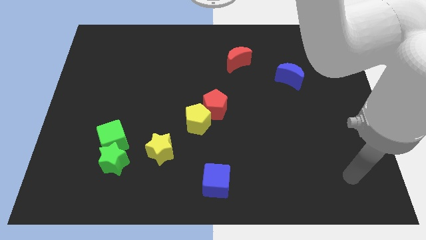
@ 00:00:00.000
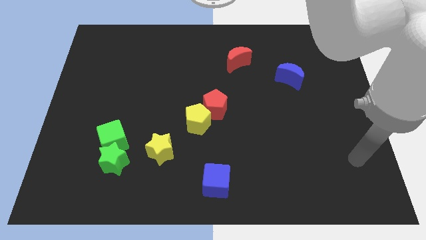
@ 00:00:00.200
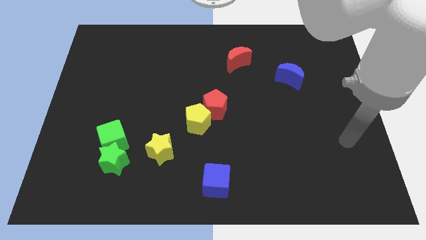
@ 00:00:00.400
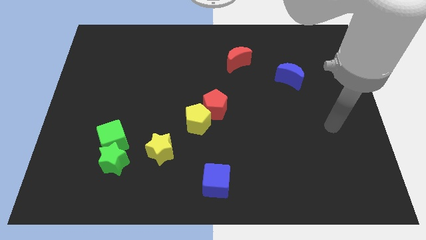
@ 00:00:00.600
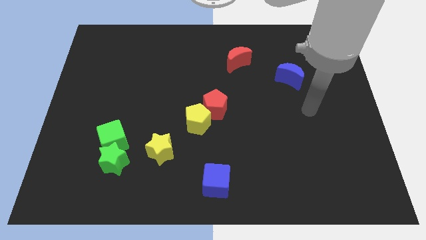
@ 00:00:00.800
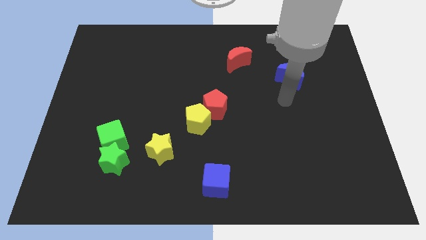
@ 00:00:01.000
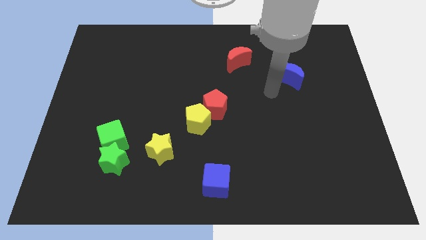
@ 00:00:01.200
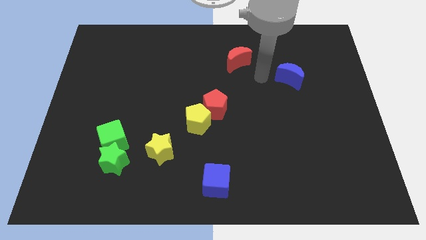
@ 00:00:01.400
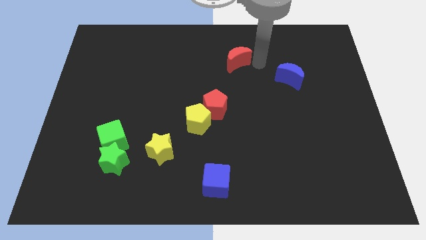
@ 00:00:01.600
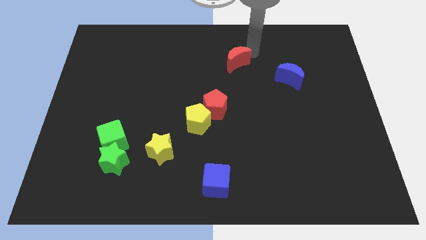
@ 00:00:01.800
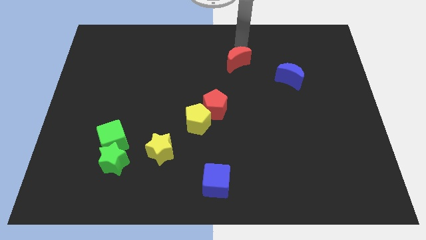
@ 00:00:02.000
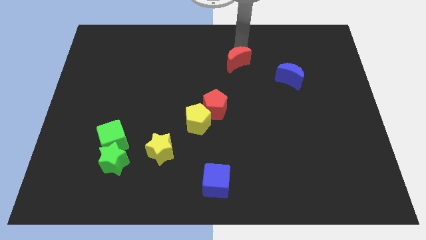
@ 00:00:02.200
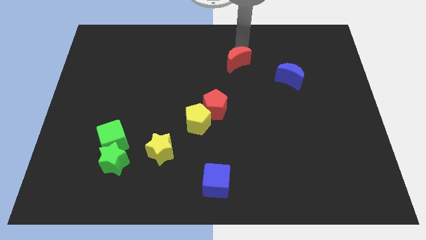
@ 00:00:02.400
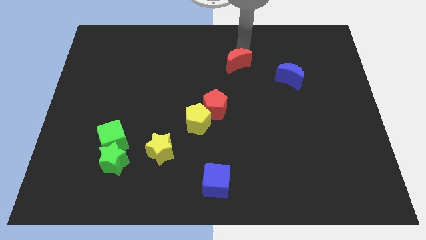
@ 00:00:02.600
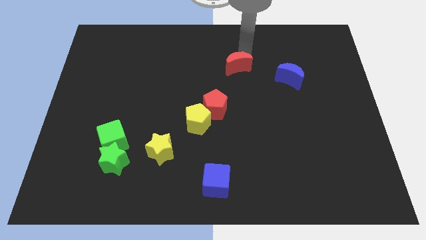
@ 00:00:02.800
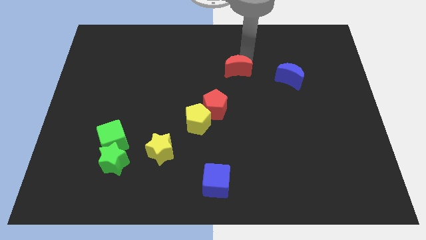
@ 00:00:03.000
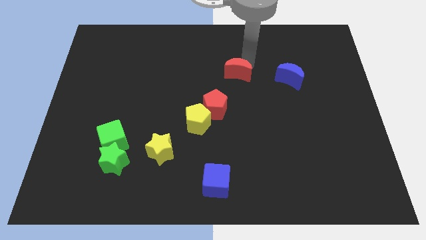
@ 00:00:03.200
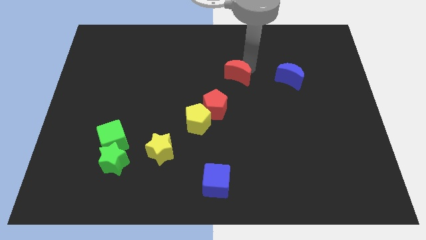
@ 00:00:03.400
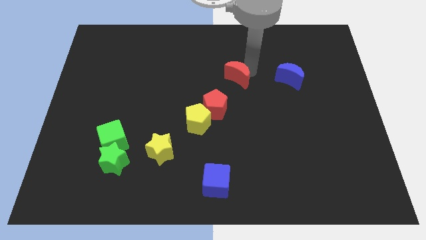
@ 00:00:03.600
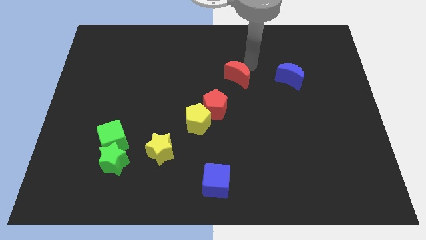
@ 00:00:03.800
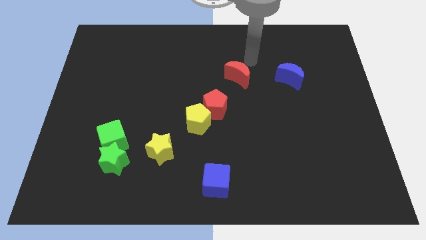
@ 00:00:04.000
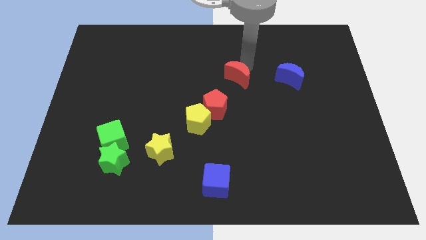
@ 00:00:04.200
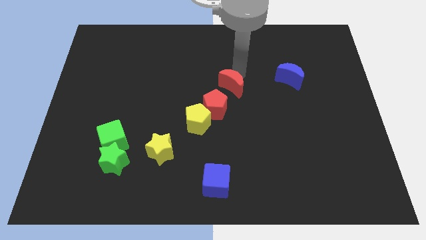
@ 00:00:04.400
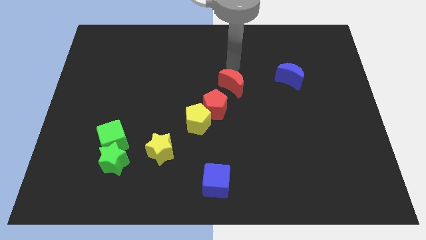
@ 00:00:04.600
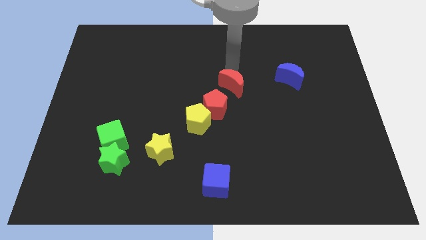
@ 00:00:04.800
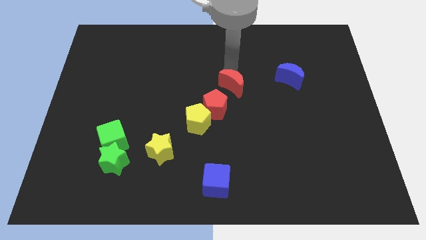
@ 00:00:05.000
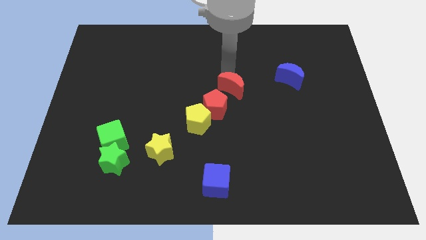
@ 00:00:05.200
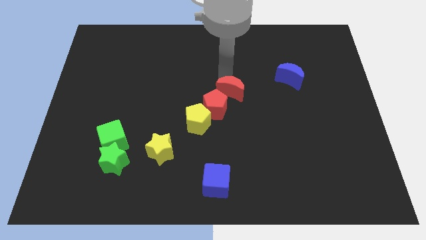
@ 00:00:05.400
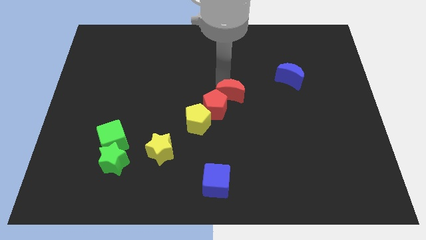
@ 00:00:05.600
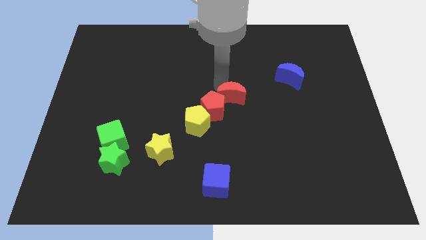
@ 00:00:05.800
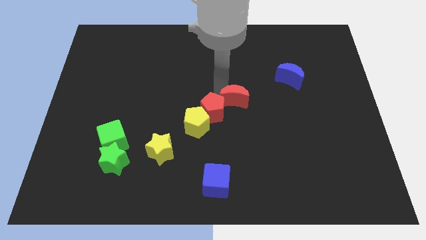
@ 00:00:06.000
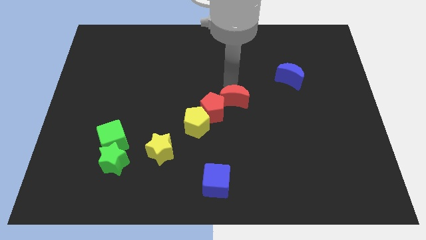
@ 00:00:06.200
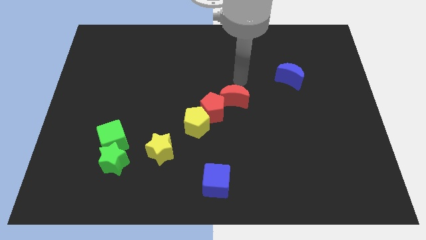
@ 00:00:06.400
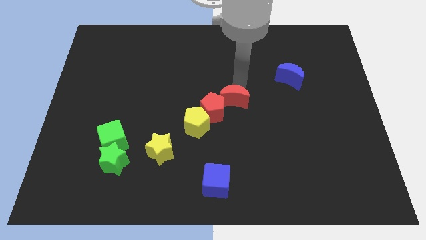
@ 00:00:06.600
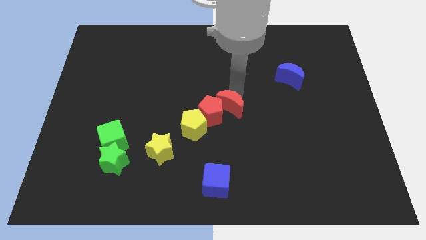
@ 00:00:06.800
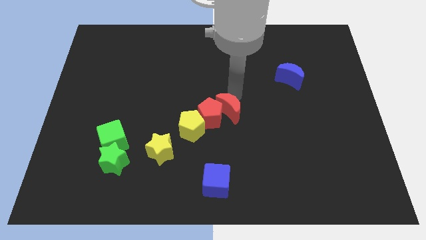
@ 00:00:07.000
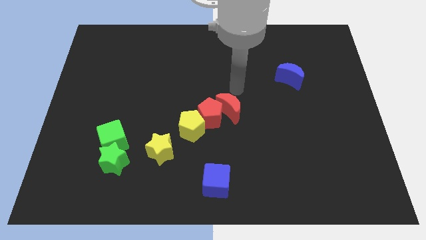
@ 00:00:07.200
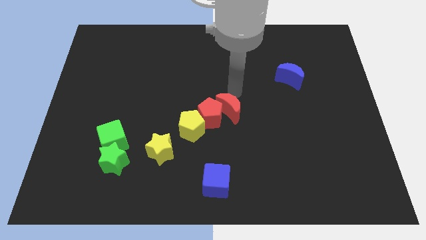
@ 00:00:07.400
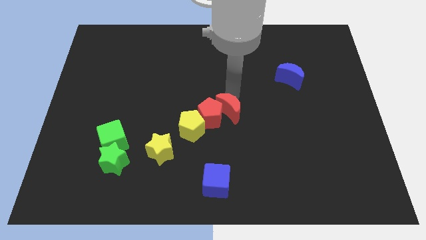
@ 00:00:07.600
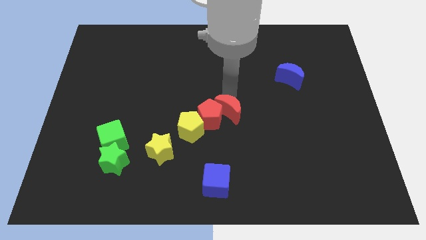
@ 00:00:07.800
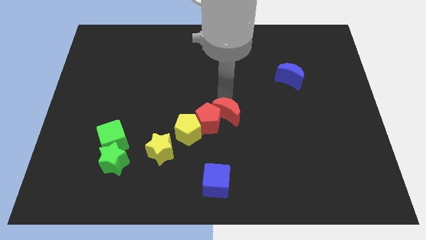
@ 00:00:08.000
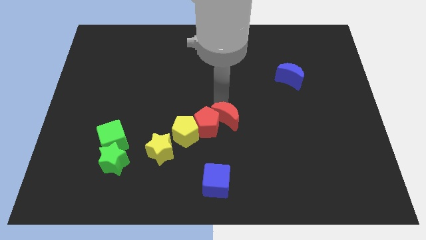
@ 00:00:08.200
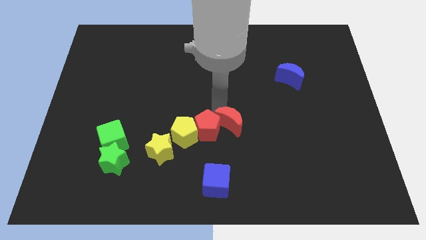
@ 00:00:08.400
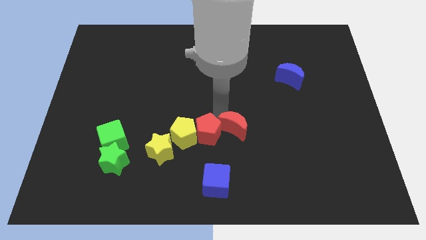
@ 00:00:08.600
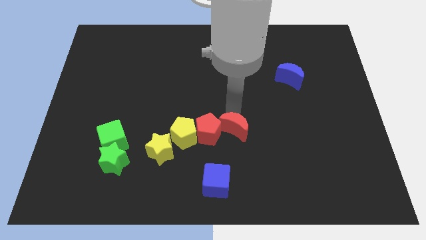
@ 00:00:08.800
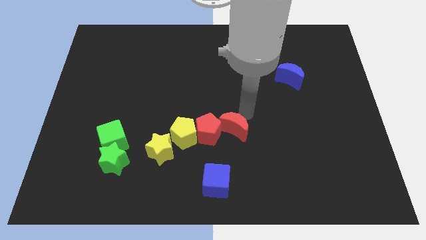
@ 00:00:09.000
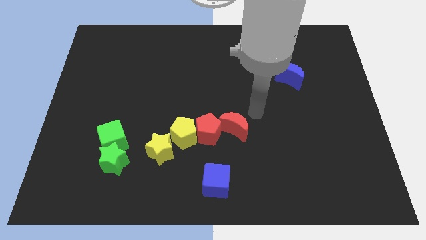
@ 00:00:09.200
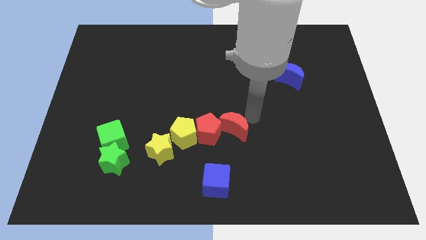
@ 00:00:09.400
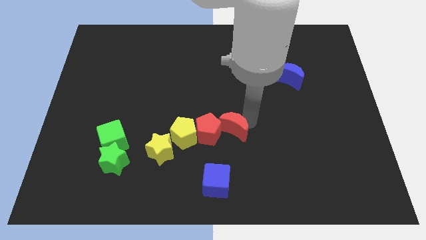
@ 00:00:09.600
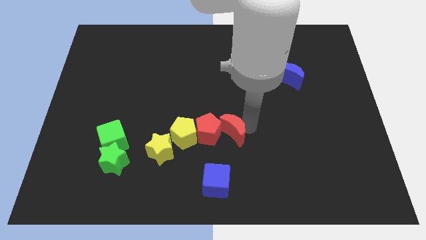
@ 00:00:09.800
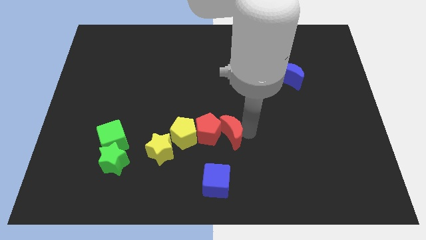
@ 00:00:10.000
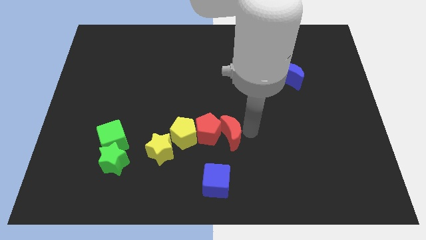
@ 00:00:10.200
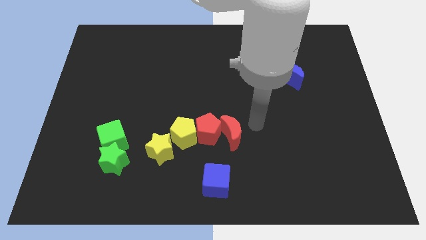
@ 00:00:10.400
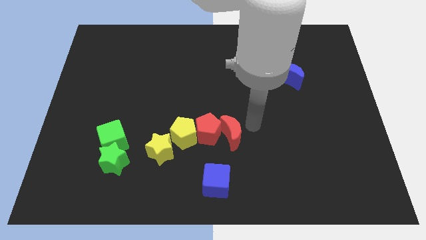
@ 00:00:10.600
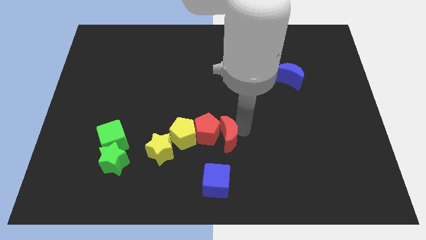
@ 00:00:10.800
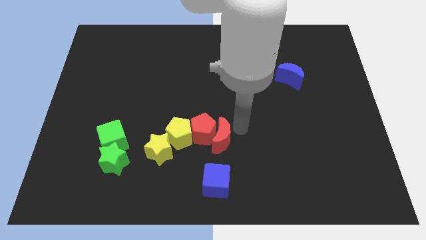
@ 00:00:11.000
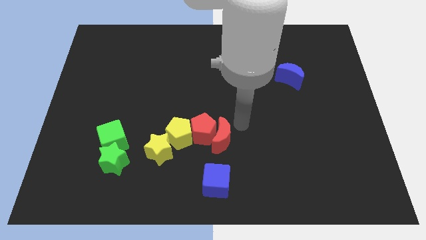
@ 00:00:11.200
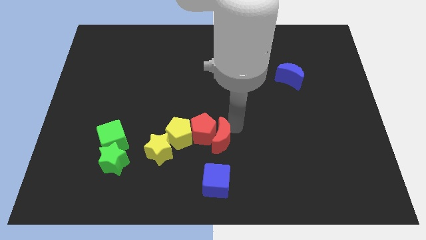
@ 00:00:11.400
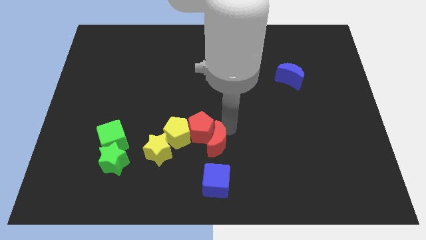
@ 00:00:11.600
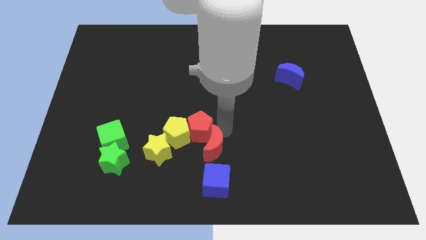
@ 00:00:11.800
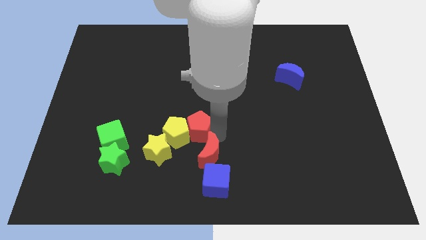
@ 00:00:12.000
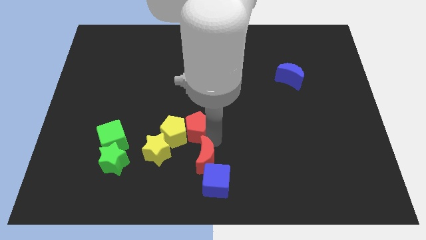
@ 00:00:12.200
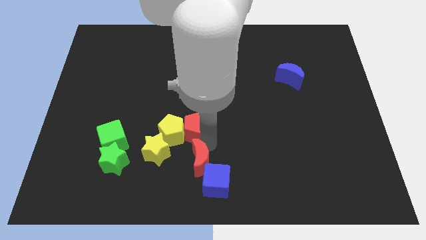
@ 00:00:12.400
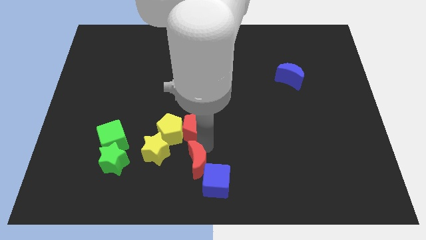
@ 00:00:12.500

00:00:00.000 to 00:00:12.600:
slide the red moon to the bottom right of the yellow star
